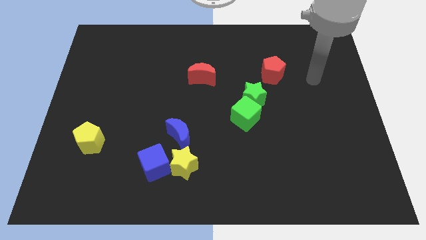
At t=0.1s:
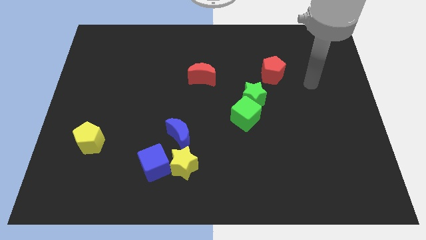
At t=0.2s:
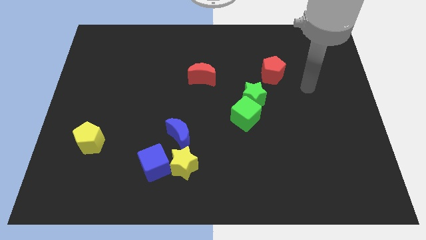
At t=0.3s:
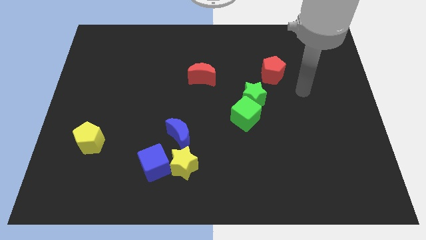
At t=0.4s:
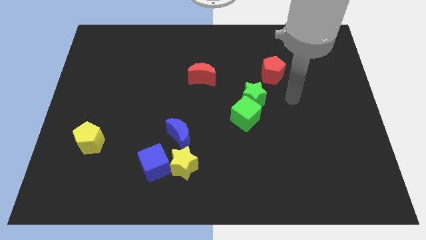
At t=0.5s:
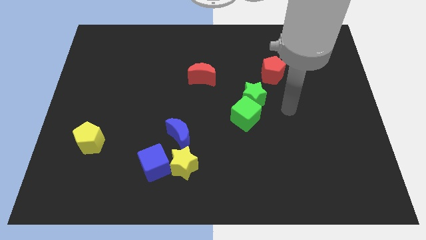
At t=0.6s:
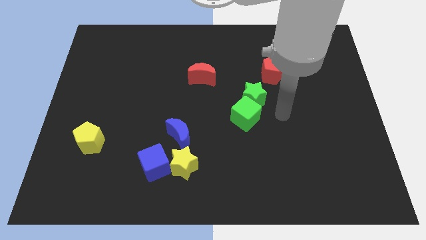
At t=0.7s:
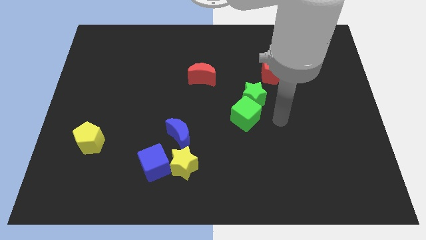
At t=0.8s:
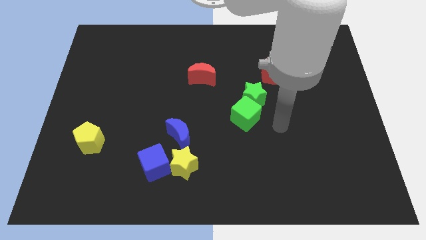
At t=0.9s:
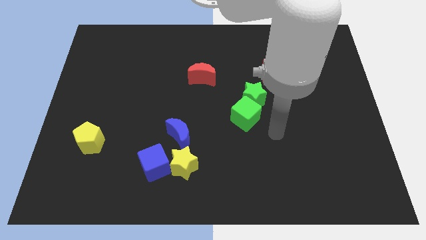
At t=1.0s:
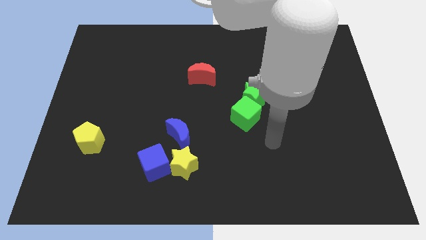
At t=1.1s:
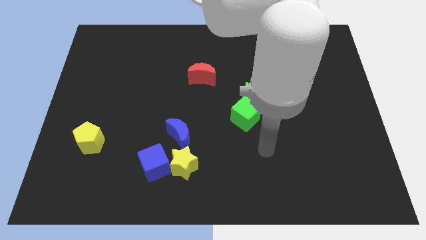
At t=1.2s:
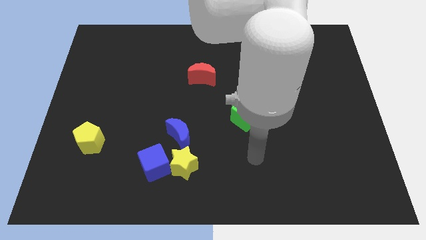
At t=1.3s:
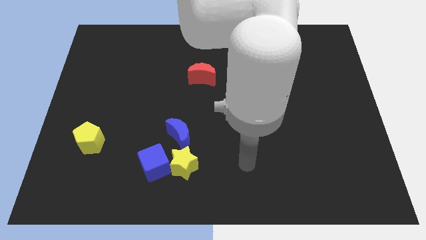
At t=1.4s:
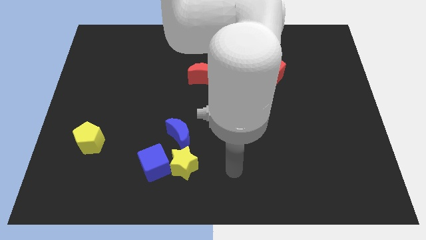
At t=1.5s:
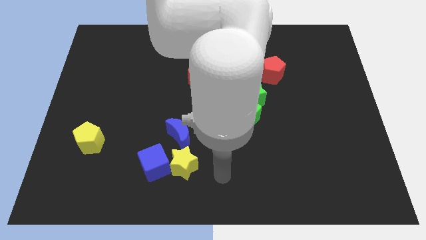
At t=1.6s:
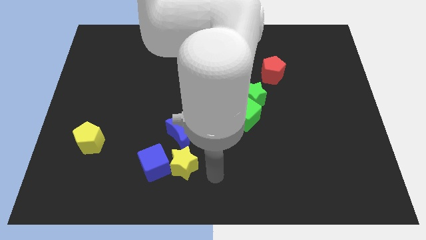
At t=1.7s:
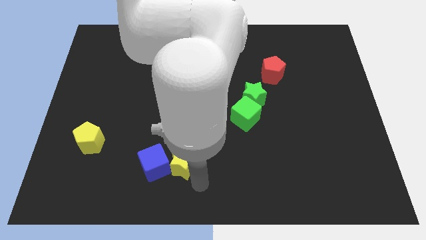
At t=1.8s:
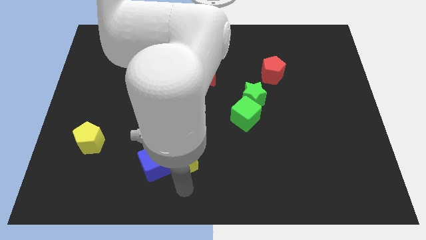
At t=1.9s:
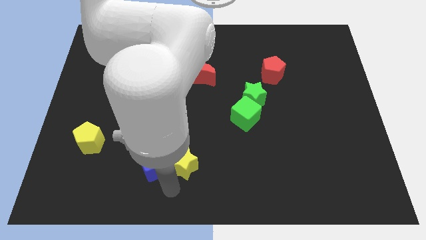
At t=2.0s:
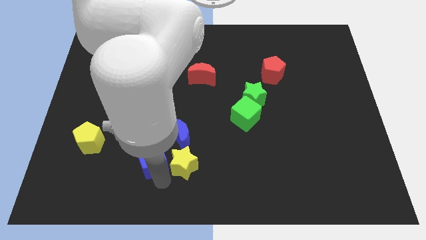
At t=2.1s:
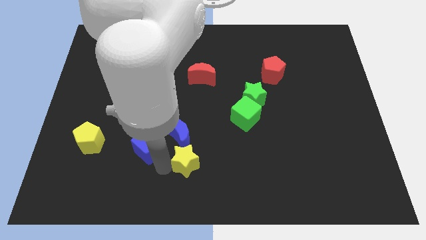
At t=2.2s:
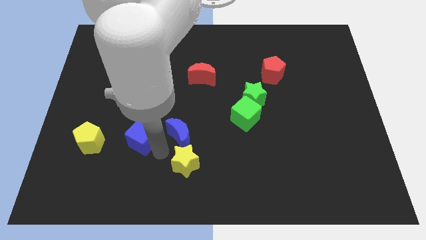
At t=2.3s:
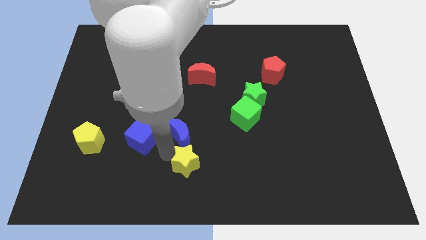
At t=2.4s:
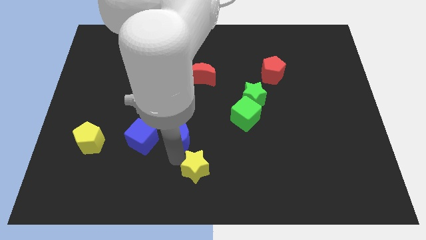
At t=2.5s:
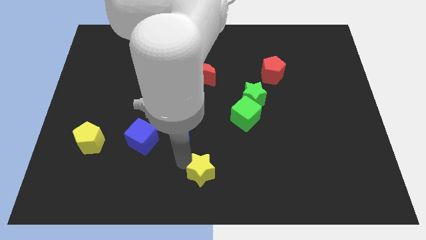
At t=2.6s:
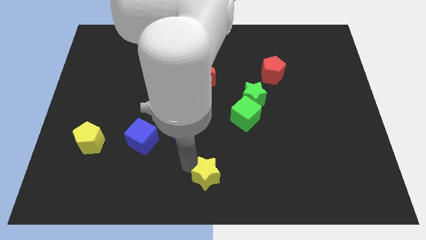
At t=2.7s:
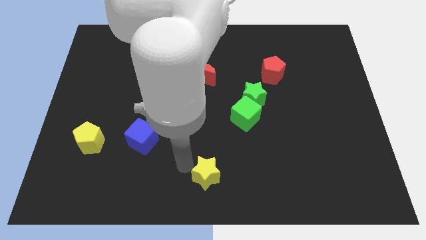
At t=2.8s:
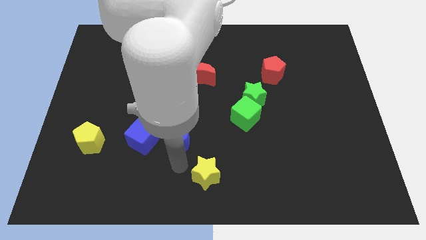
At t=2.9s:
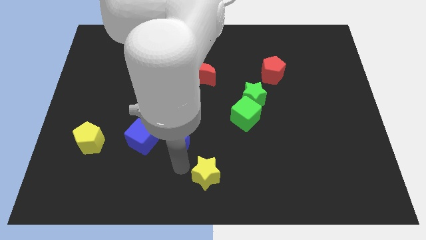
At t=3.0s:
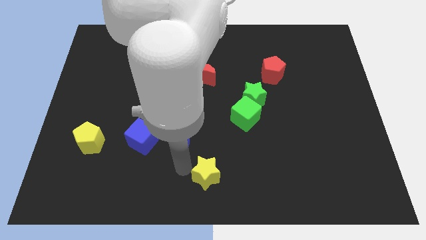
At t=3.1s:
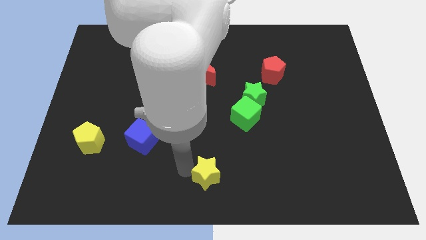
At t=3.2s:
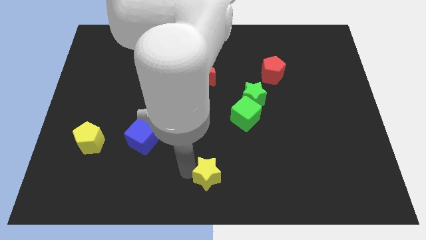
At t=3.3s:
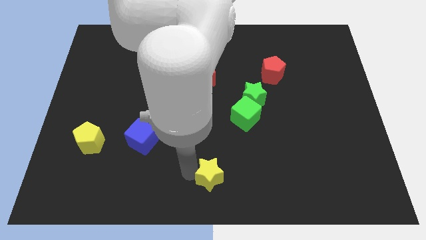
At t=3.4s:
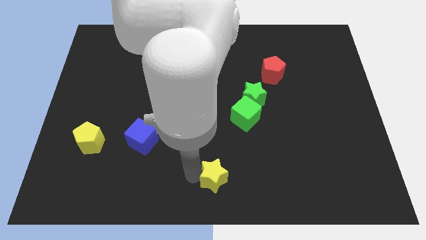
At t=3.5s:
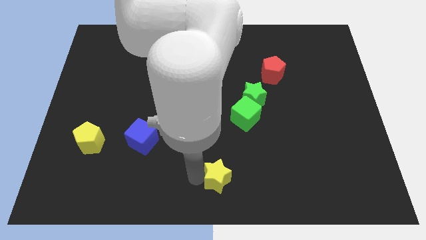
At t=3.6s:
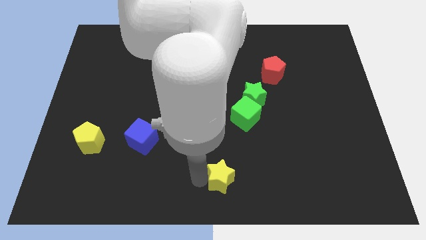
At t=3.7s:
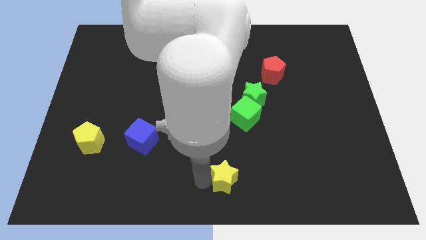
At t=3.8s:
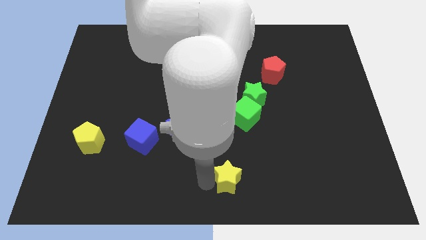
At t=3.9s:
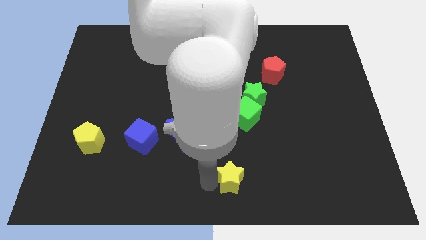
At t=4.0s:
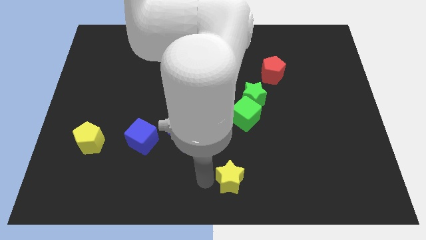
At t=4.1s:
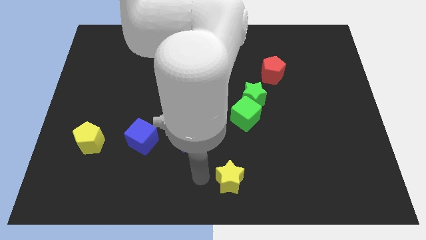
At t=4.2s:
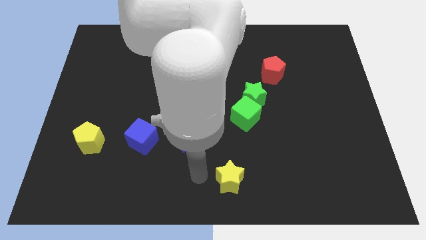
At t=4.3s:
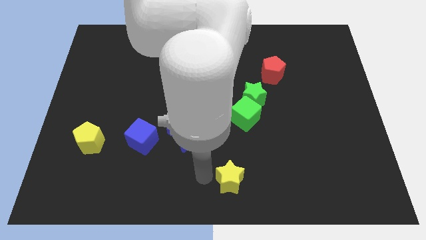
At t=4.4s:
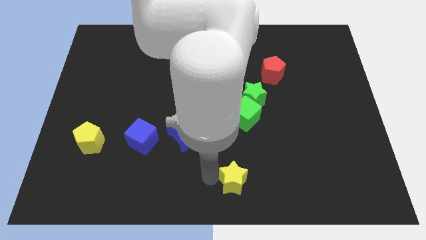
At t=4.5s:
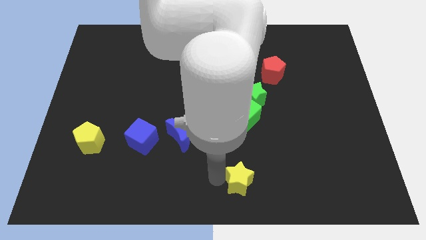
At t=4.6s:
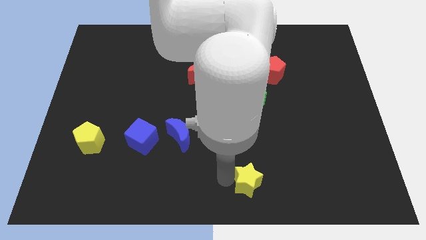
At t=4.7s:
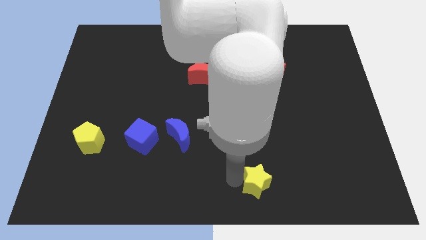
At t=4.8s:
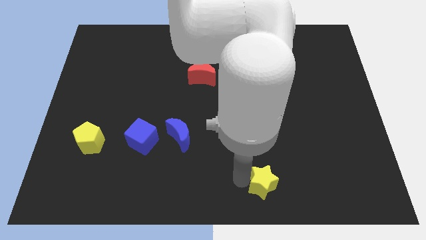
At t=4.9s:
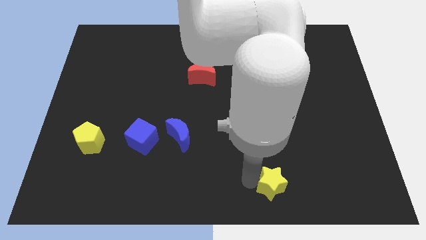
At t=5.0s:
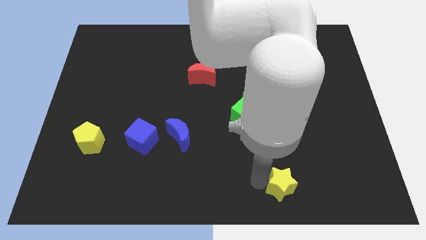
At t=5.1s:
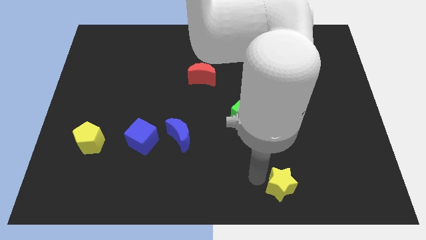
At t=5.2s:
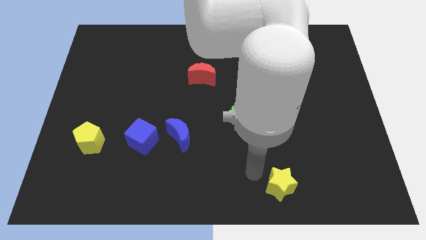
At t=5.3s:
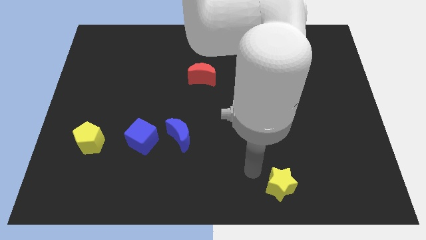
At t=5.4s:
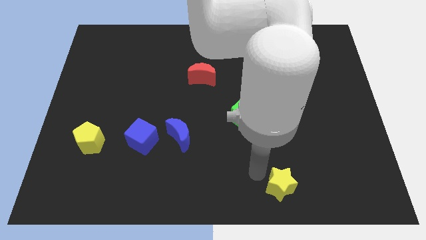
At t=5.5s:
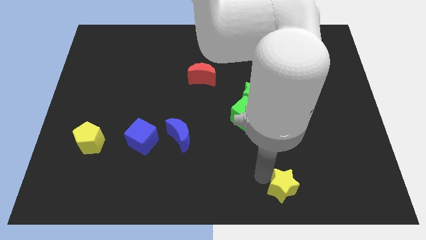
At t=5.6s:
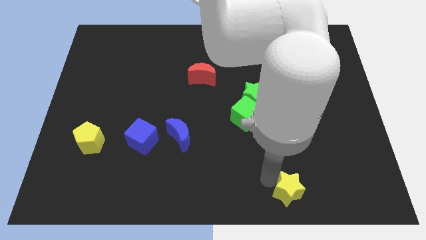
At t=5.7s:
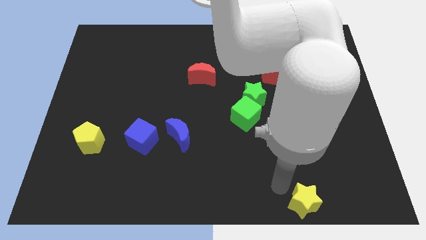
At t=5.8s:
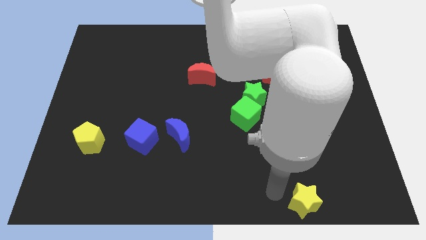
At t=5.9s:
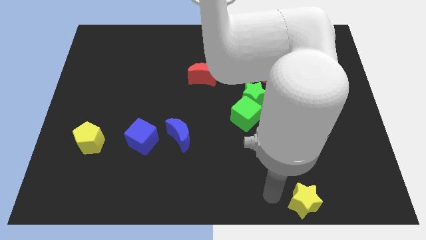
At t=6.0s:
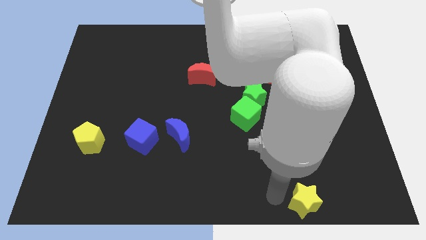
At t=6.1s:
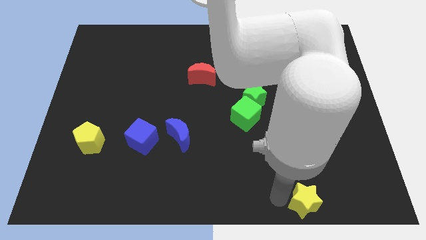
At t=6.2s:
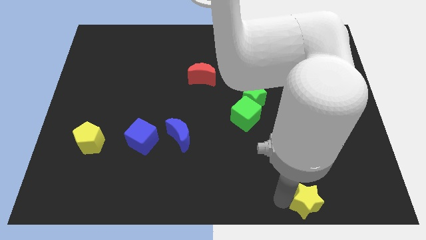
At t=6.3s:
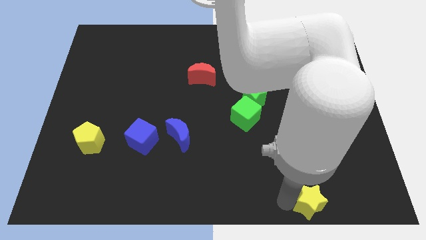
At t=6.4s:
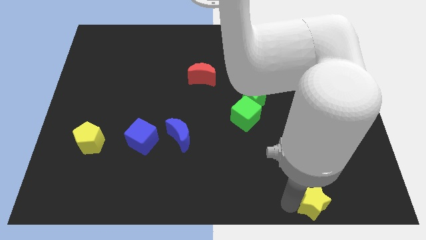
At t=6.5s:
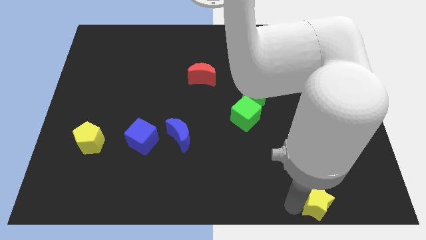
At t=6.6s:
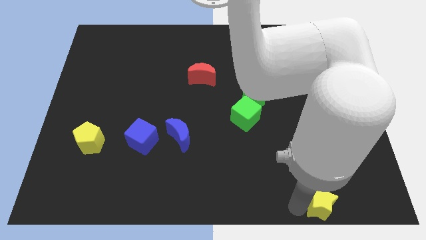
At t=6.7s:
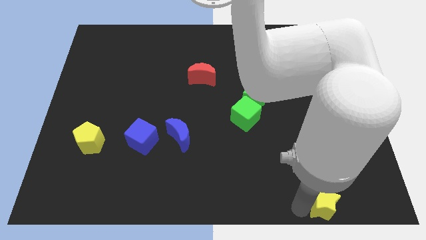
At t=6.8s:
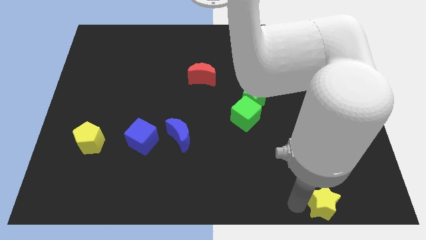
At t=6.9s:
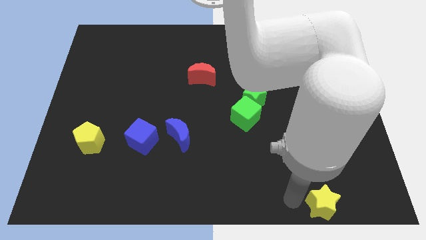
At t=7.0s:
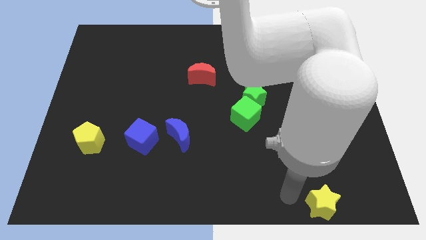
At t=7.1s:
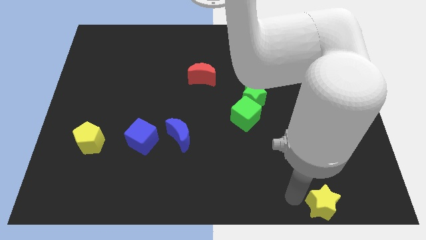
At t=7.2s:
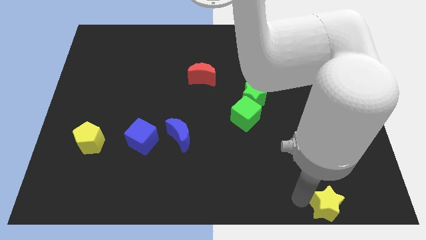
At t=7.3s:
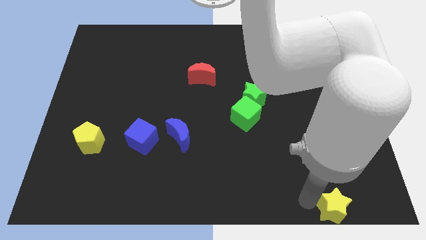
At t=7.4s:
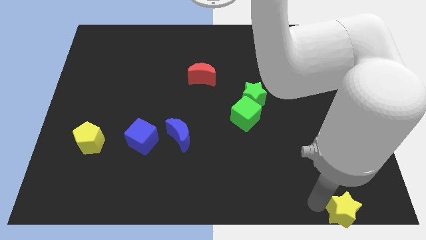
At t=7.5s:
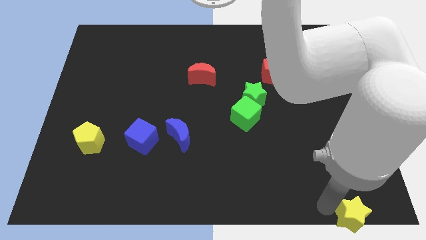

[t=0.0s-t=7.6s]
put the yellow star to the lower right corner
